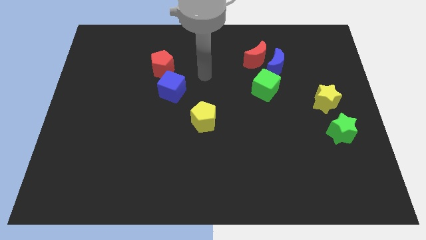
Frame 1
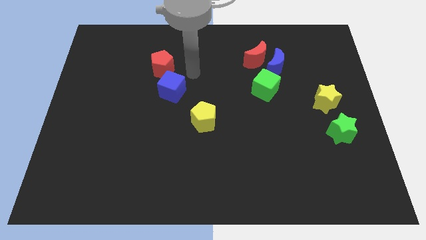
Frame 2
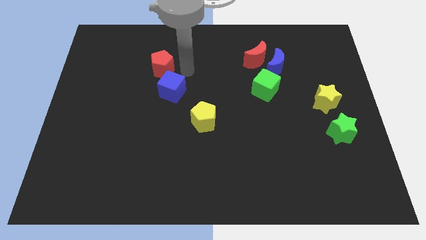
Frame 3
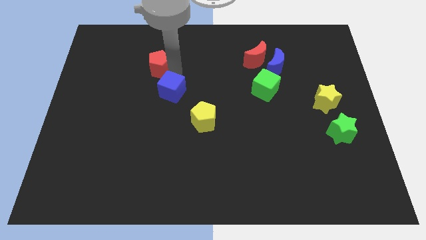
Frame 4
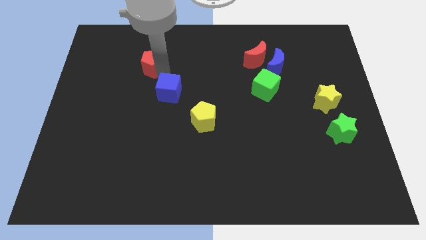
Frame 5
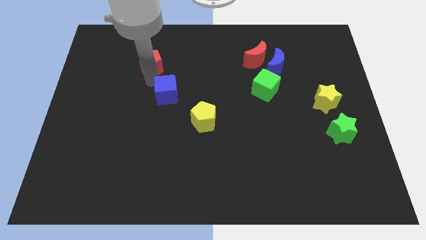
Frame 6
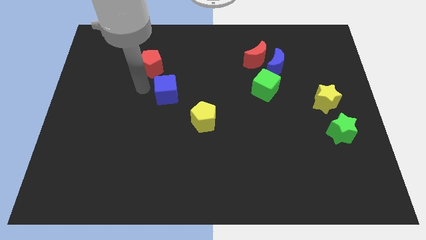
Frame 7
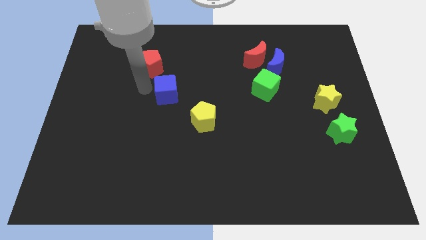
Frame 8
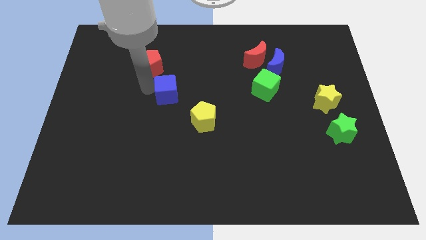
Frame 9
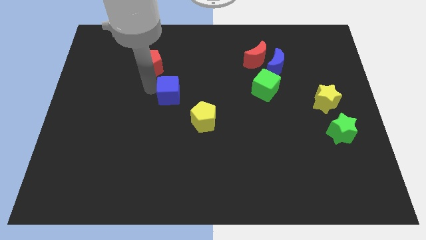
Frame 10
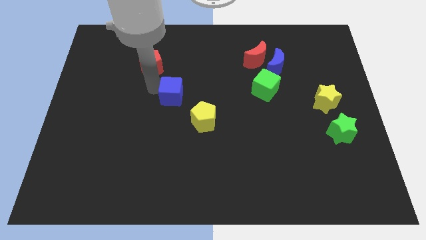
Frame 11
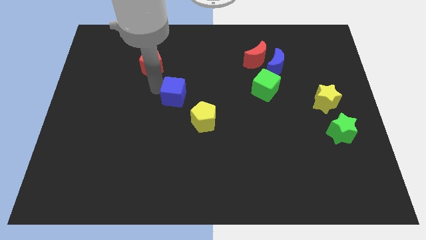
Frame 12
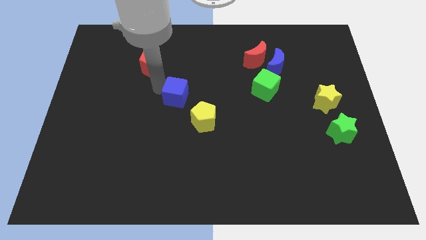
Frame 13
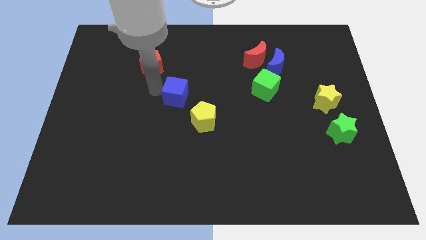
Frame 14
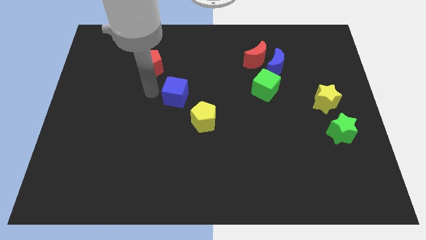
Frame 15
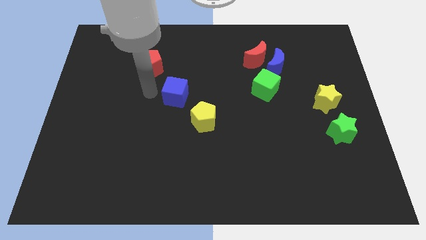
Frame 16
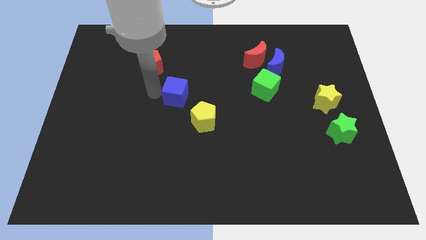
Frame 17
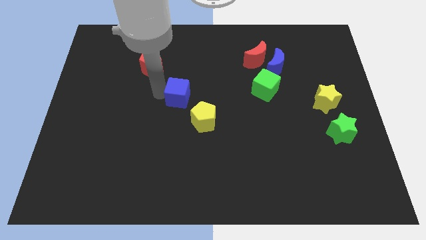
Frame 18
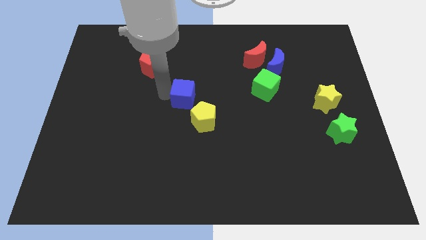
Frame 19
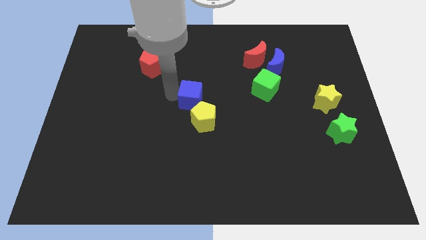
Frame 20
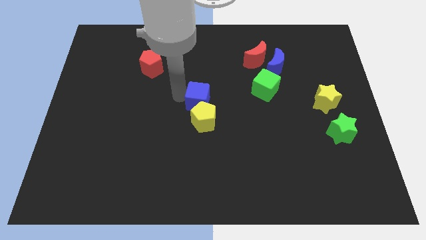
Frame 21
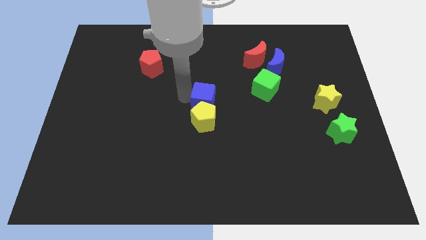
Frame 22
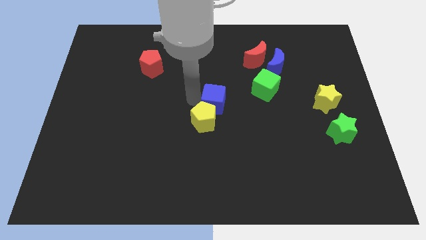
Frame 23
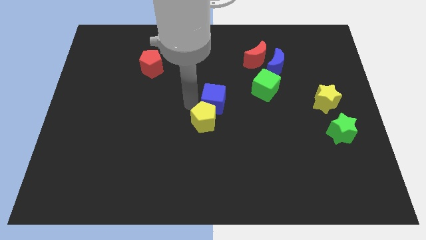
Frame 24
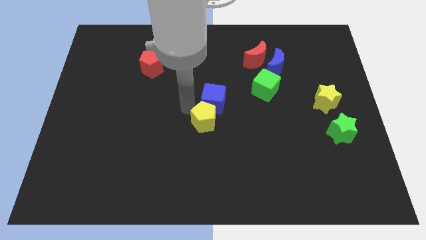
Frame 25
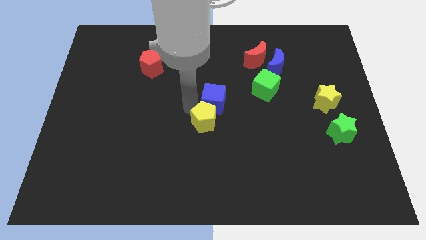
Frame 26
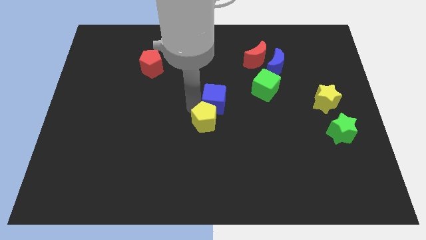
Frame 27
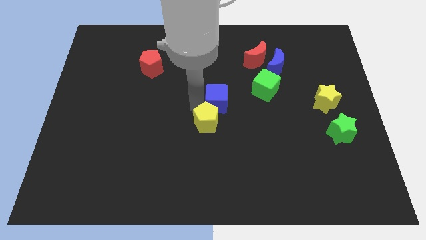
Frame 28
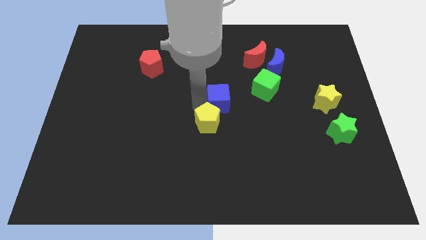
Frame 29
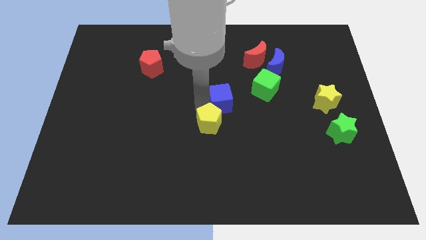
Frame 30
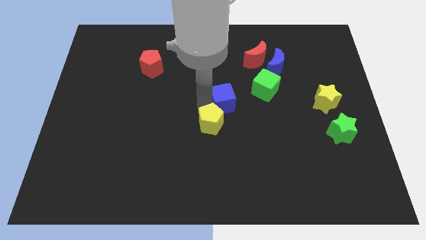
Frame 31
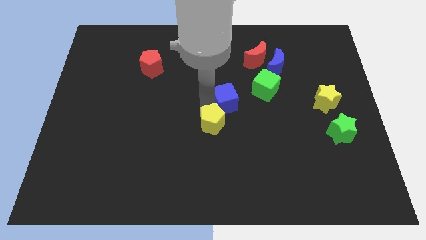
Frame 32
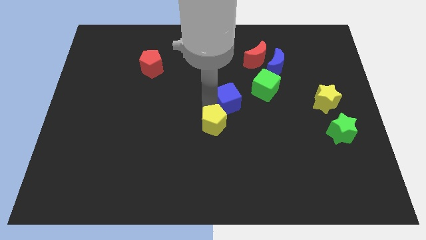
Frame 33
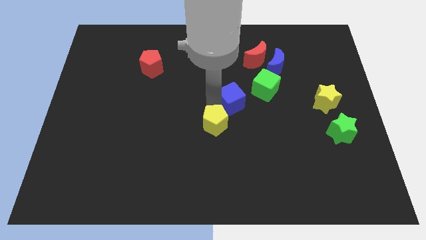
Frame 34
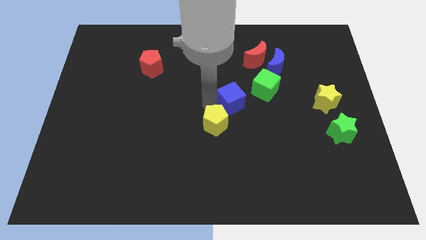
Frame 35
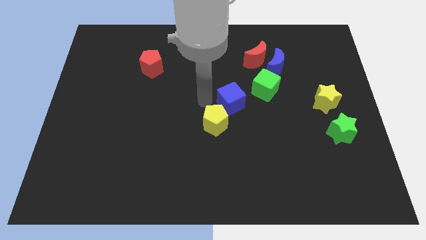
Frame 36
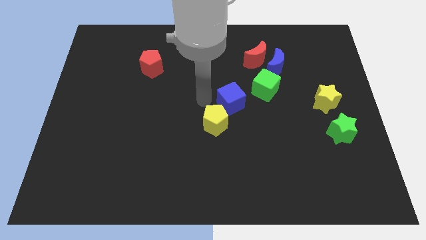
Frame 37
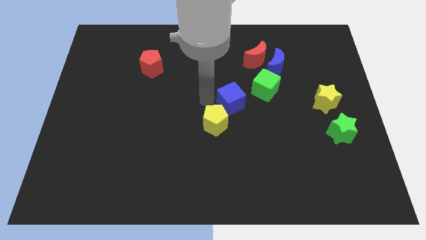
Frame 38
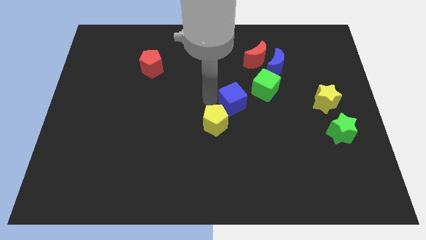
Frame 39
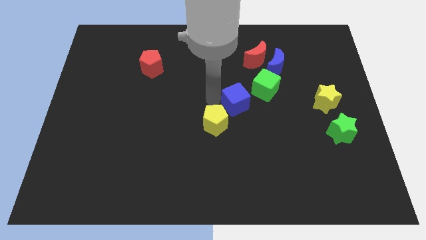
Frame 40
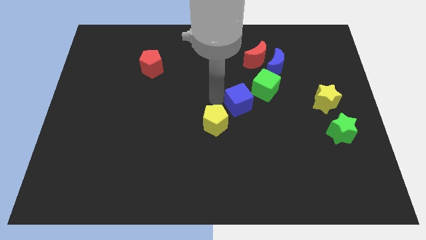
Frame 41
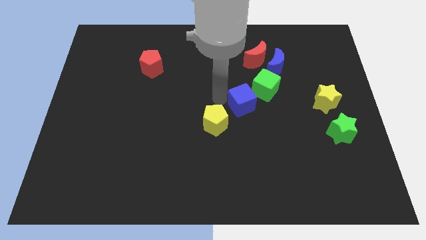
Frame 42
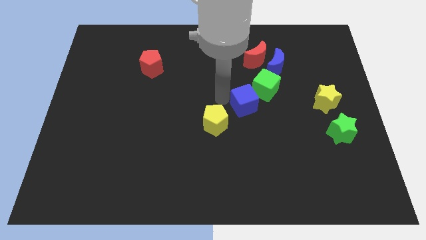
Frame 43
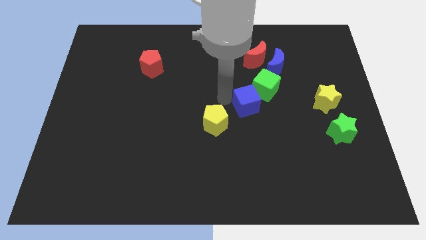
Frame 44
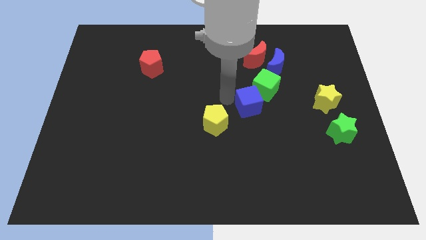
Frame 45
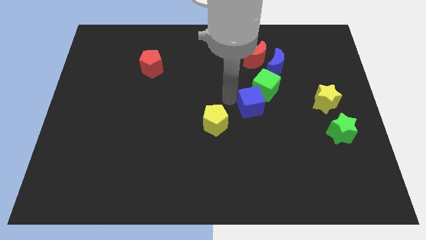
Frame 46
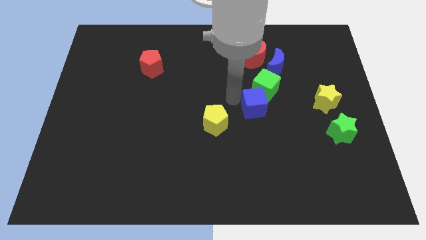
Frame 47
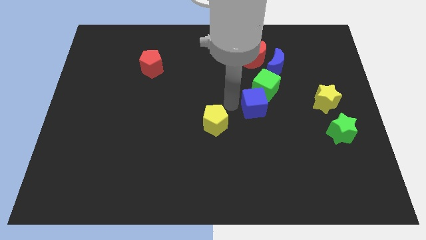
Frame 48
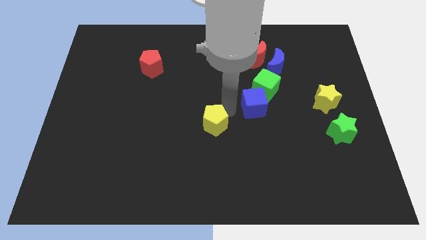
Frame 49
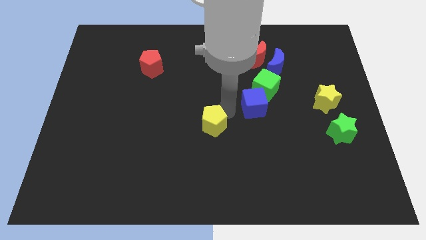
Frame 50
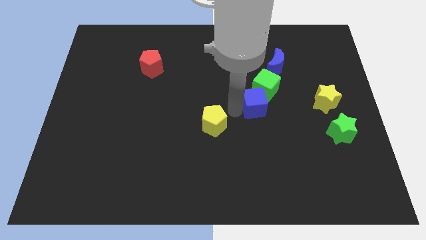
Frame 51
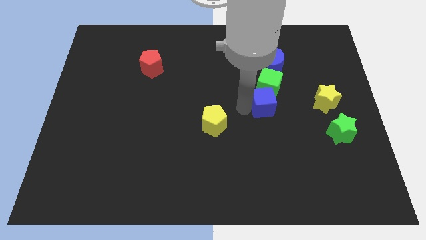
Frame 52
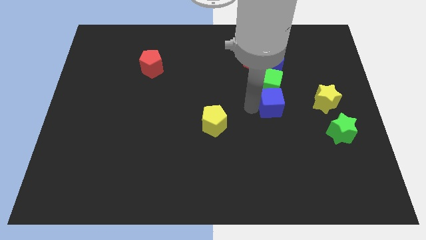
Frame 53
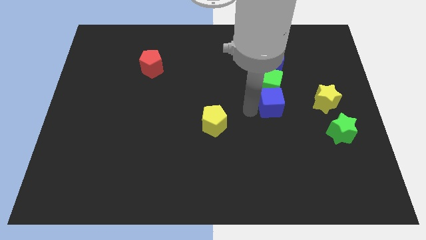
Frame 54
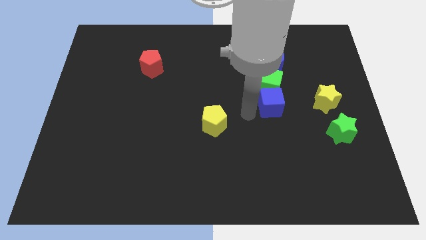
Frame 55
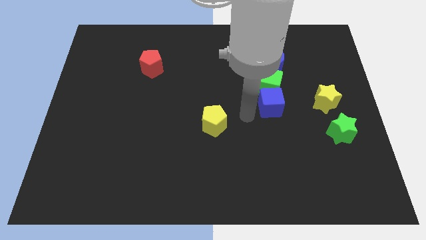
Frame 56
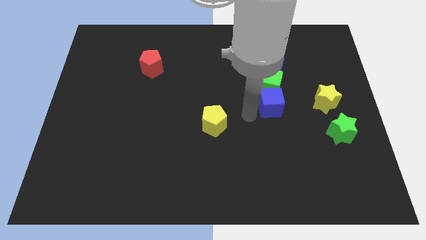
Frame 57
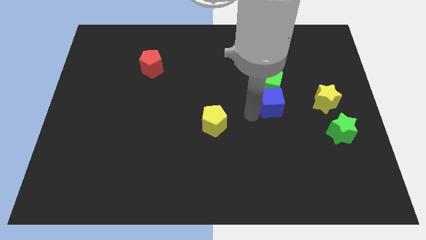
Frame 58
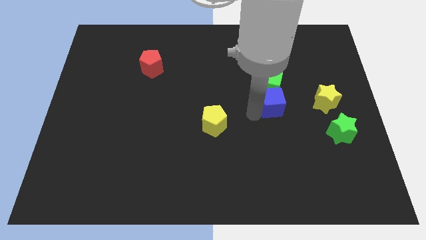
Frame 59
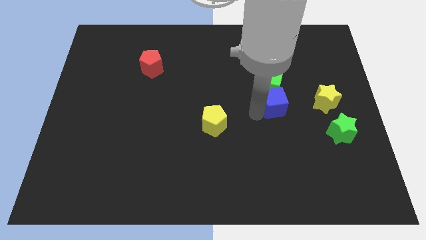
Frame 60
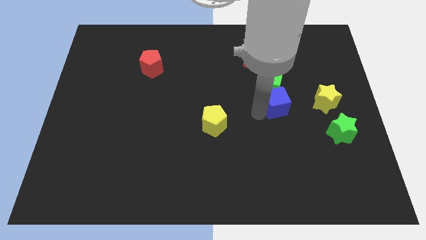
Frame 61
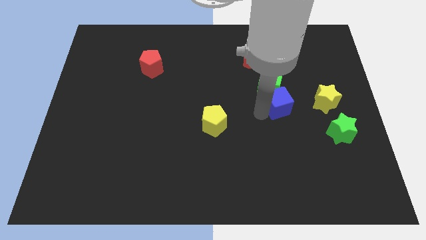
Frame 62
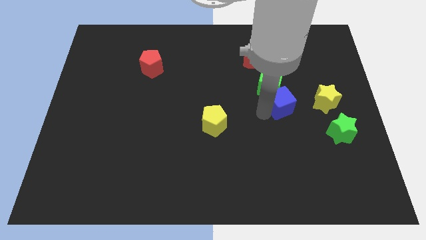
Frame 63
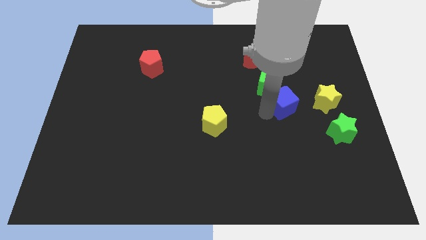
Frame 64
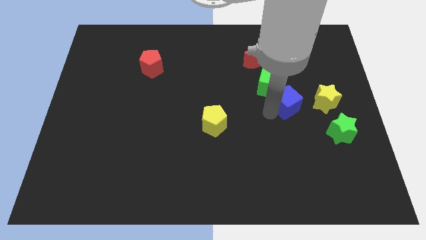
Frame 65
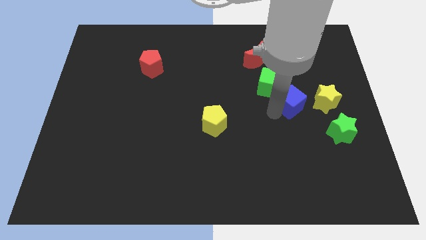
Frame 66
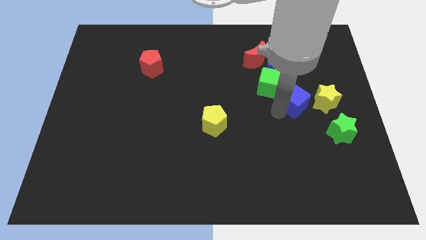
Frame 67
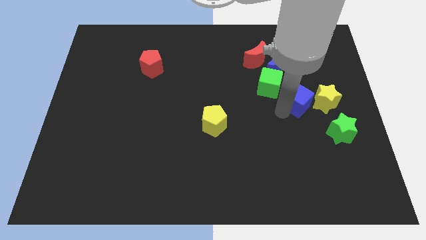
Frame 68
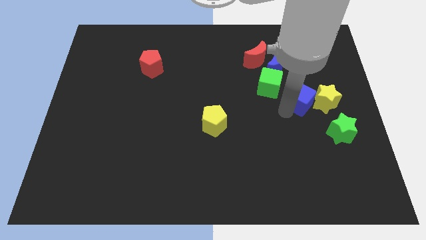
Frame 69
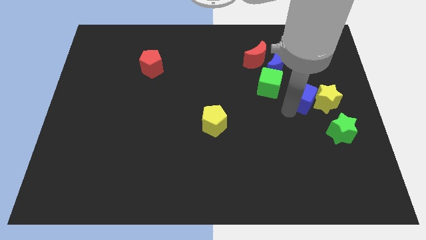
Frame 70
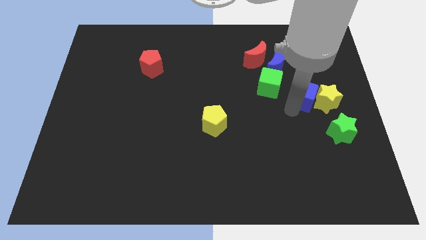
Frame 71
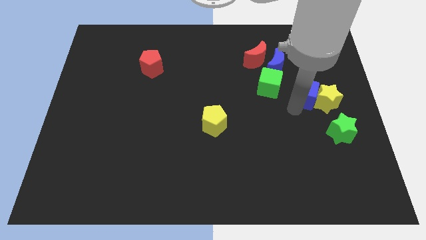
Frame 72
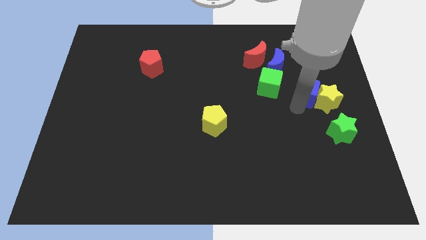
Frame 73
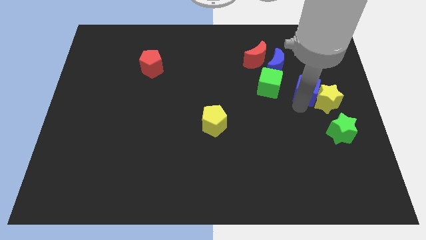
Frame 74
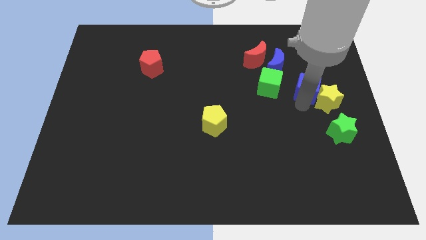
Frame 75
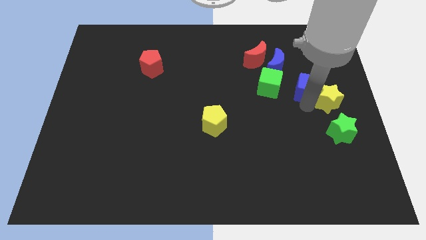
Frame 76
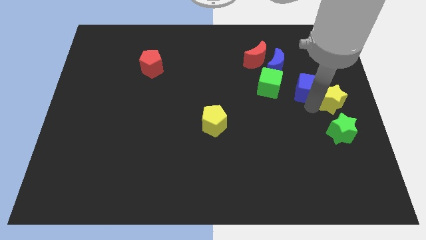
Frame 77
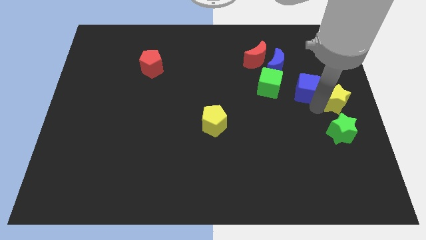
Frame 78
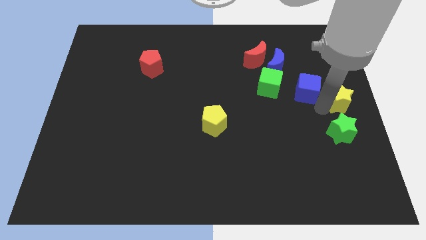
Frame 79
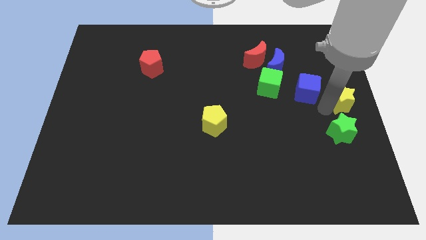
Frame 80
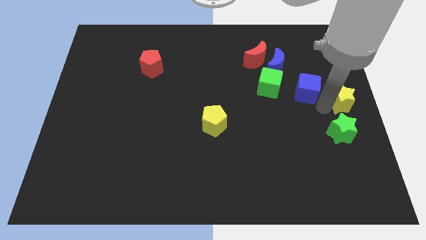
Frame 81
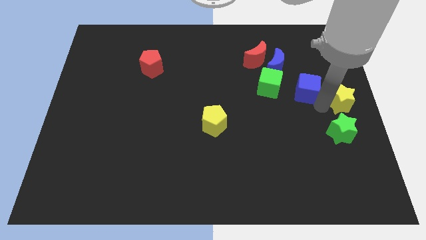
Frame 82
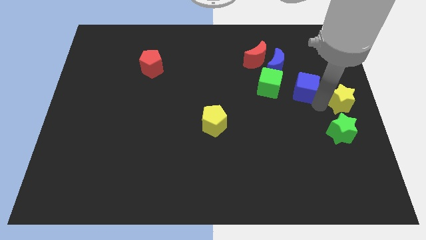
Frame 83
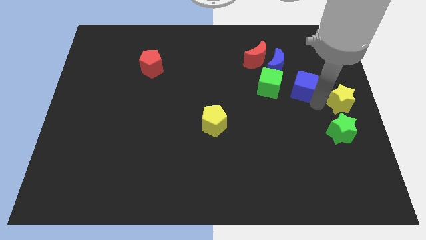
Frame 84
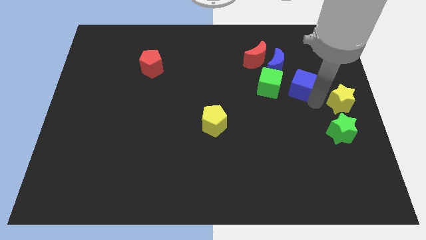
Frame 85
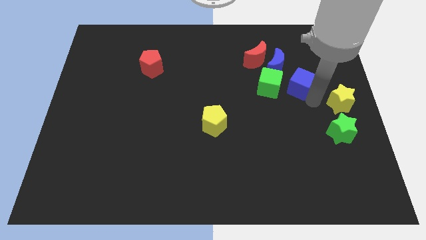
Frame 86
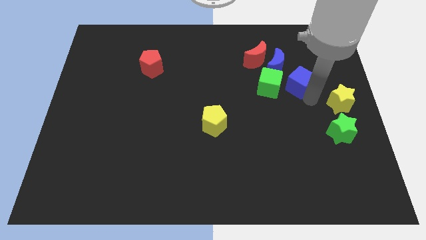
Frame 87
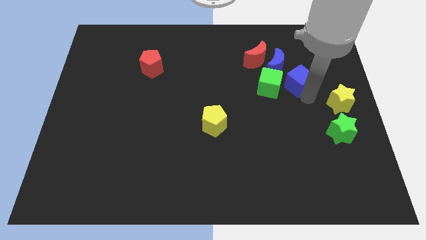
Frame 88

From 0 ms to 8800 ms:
push the blue cube diagonally up and to the right of the green cube
